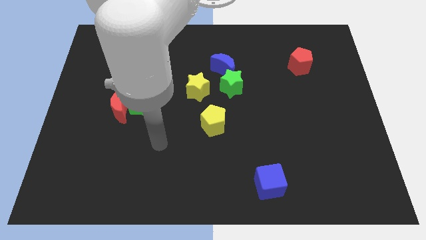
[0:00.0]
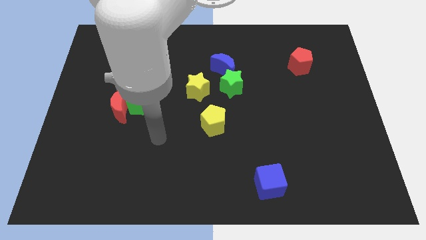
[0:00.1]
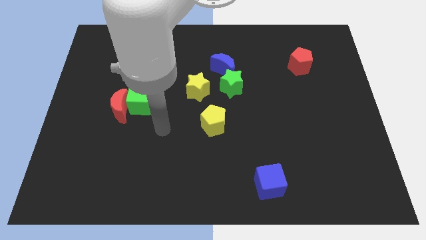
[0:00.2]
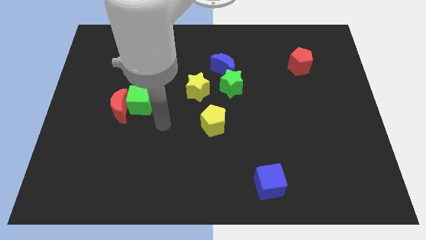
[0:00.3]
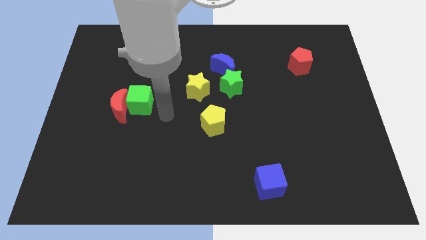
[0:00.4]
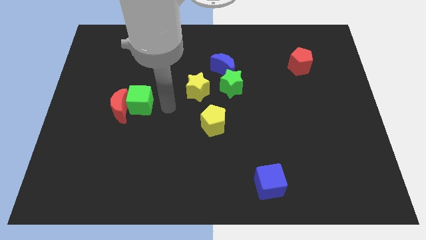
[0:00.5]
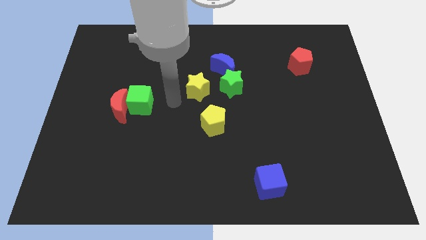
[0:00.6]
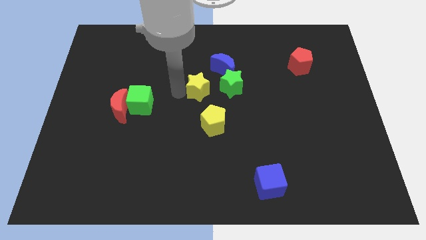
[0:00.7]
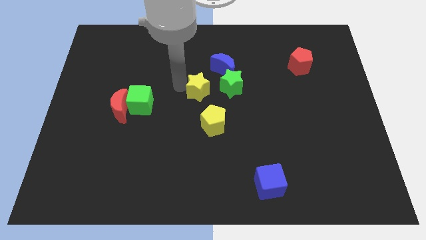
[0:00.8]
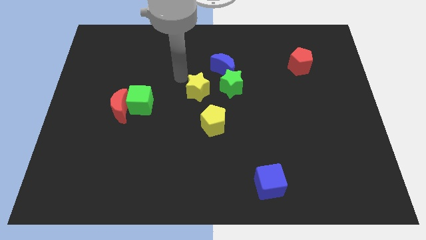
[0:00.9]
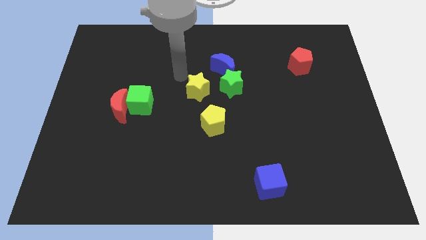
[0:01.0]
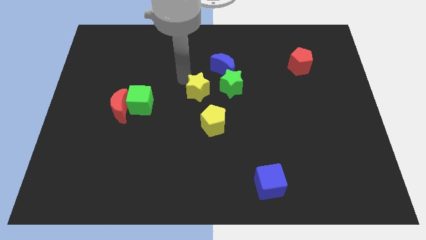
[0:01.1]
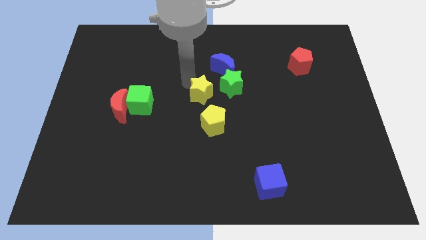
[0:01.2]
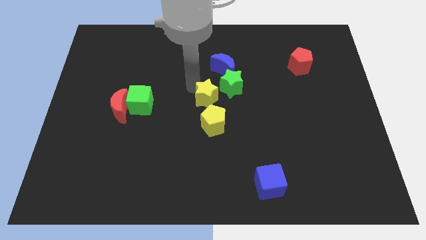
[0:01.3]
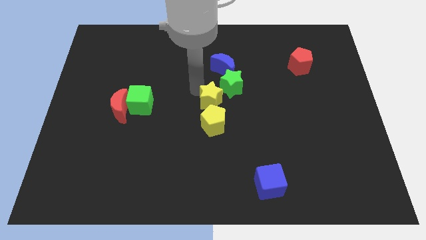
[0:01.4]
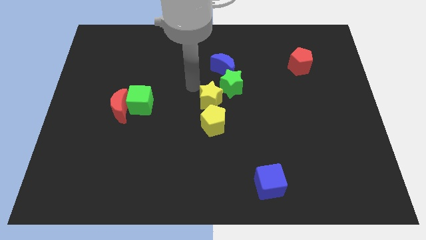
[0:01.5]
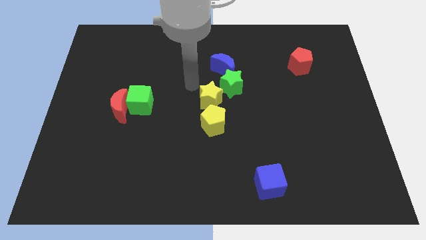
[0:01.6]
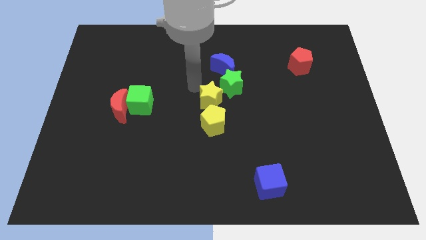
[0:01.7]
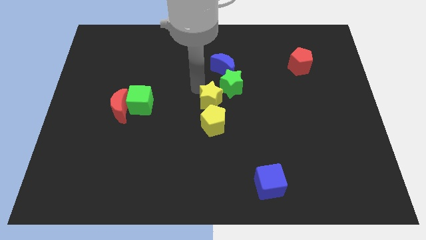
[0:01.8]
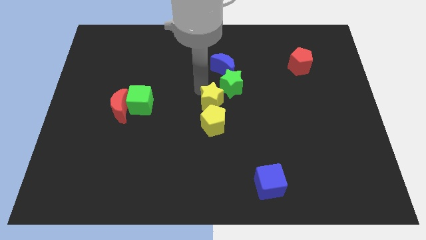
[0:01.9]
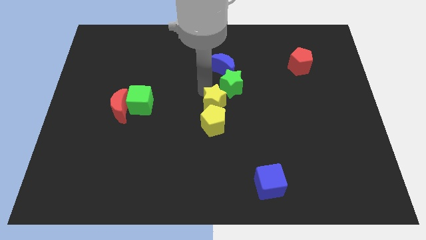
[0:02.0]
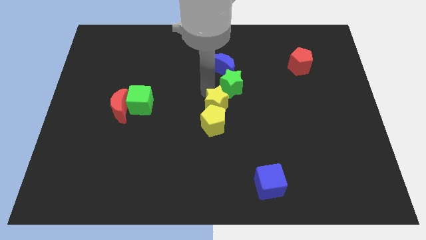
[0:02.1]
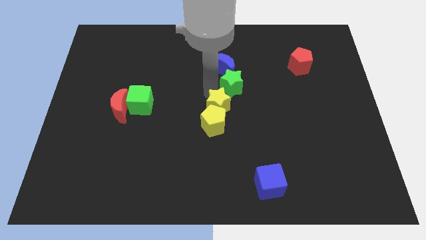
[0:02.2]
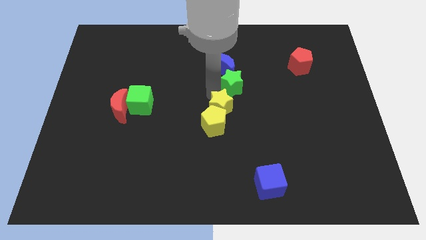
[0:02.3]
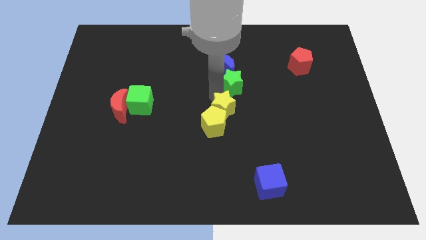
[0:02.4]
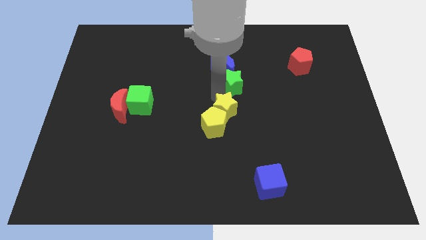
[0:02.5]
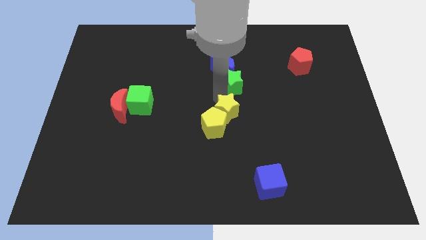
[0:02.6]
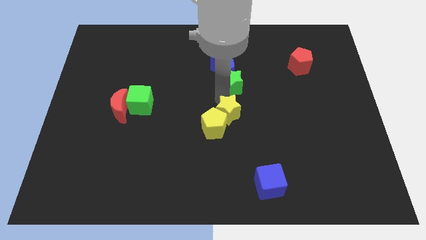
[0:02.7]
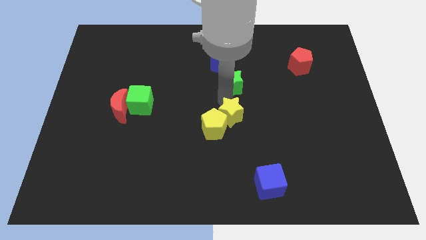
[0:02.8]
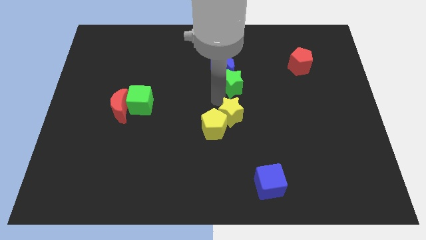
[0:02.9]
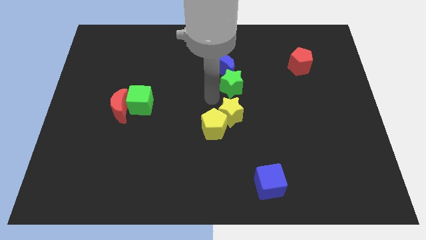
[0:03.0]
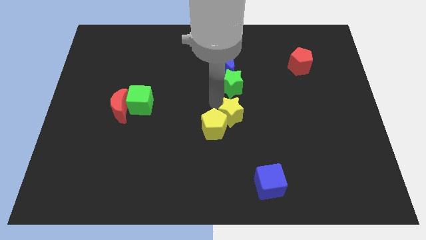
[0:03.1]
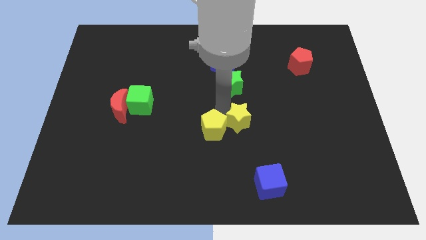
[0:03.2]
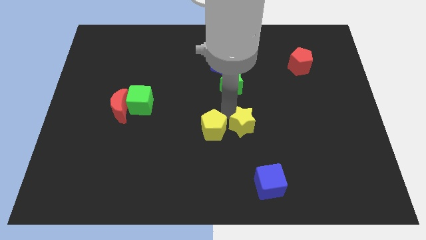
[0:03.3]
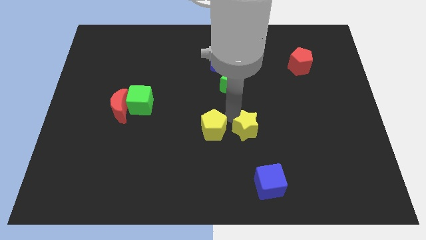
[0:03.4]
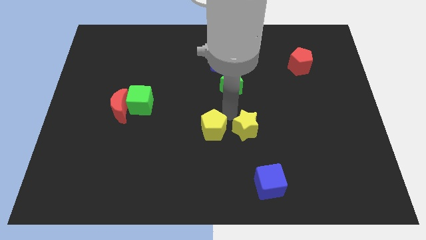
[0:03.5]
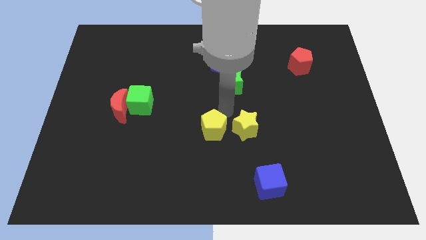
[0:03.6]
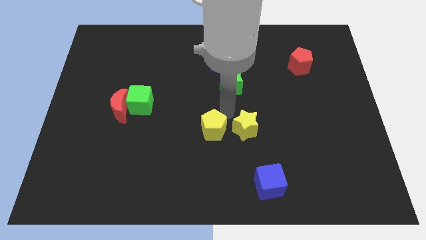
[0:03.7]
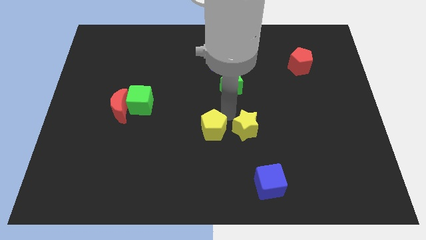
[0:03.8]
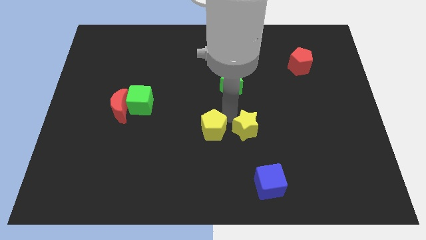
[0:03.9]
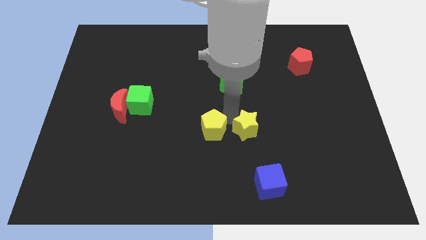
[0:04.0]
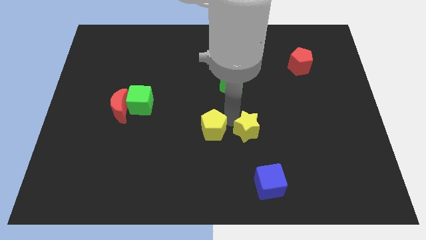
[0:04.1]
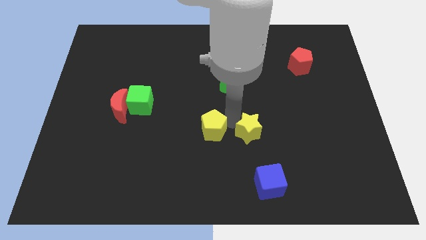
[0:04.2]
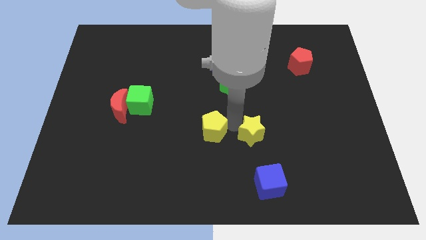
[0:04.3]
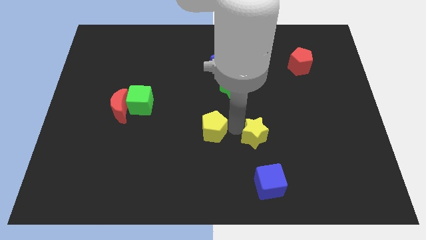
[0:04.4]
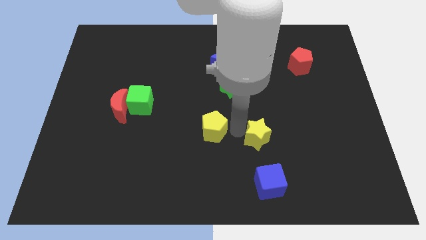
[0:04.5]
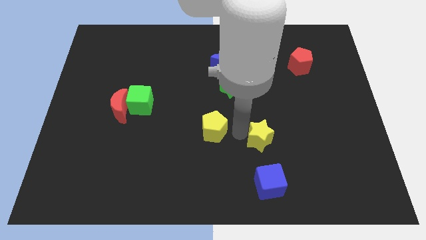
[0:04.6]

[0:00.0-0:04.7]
push the yellow star diagonally downwards and to the right

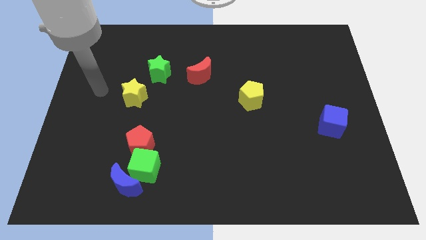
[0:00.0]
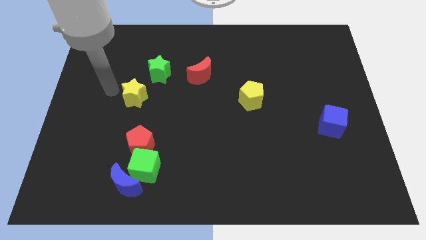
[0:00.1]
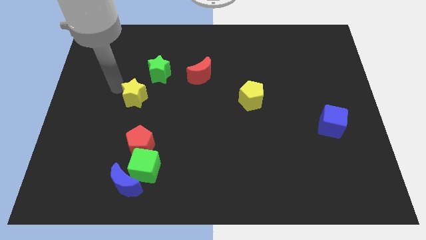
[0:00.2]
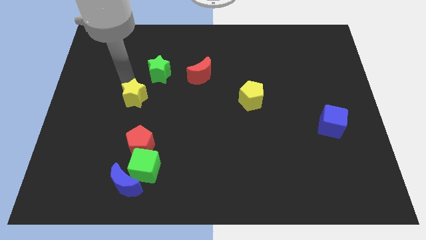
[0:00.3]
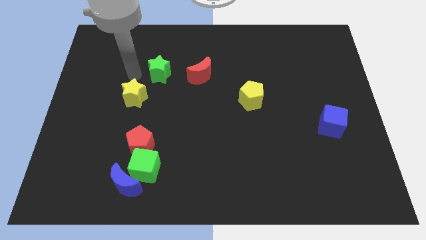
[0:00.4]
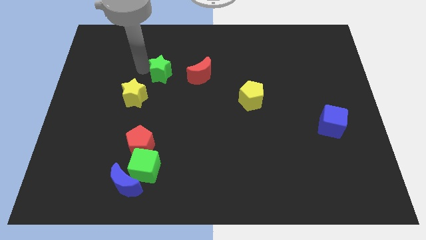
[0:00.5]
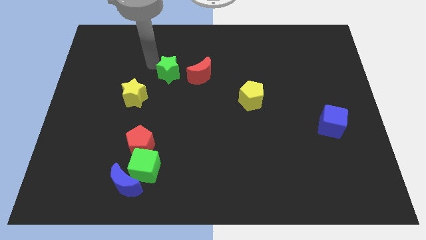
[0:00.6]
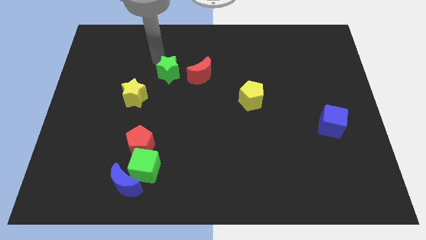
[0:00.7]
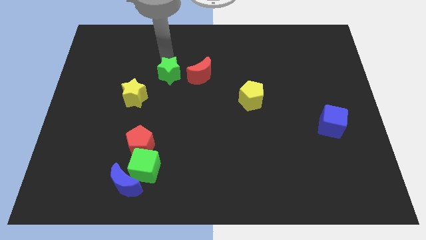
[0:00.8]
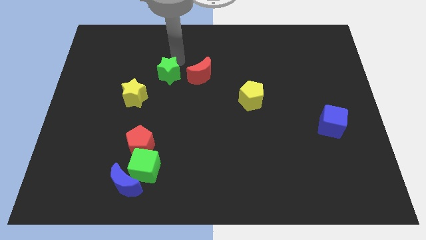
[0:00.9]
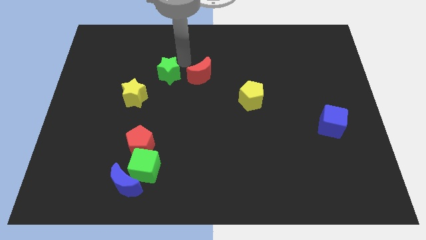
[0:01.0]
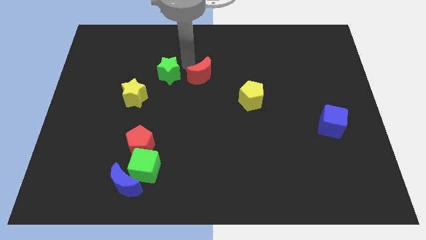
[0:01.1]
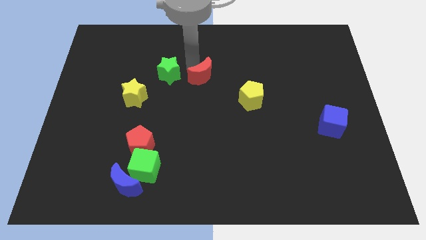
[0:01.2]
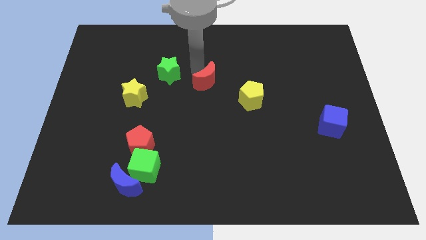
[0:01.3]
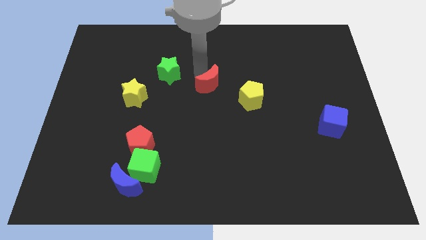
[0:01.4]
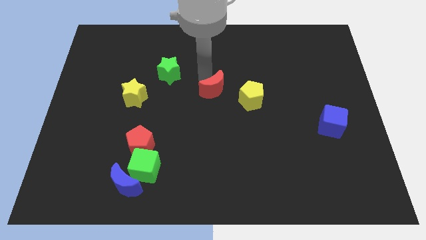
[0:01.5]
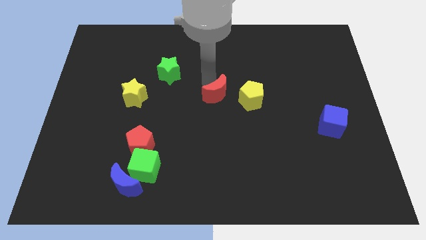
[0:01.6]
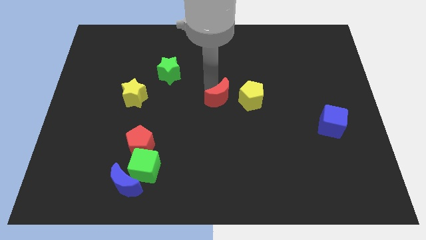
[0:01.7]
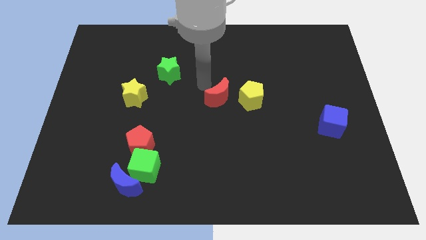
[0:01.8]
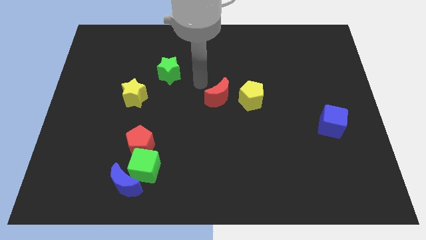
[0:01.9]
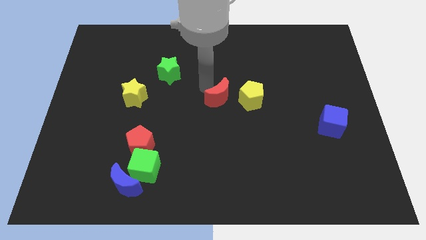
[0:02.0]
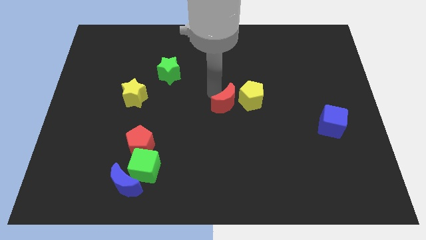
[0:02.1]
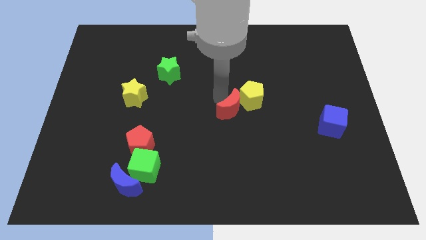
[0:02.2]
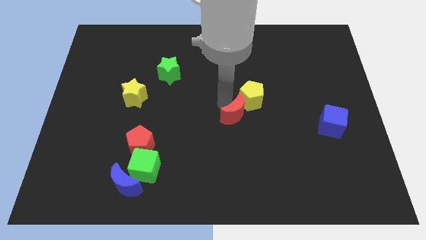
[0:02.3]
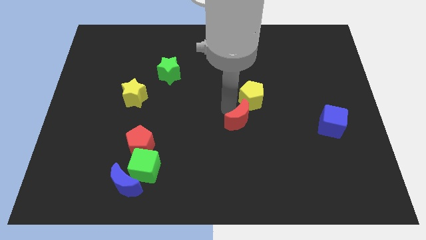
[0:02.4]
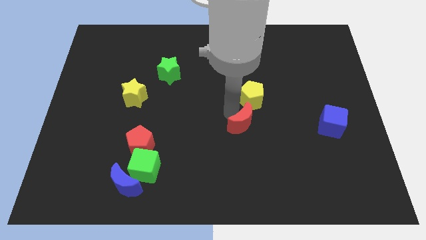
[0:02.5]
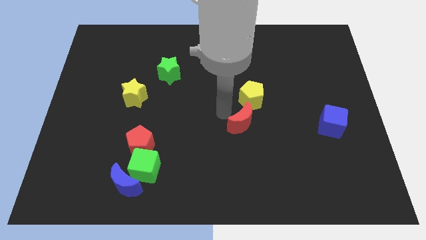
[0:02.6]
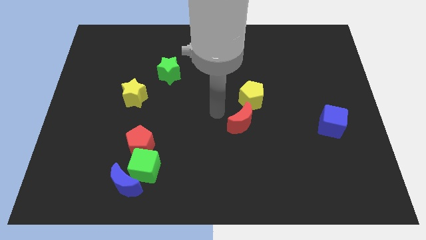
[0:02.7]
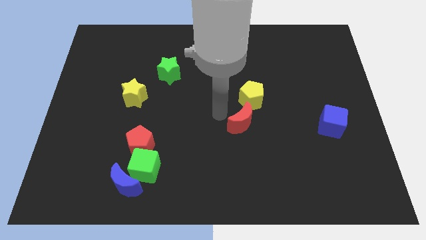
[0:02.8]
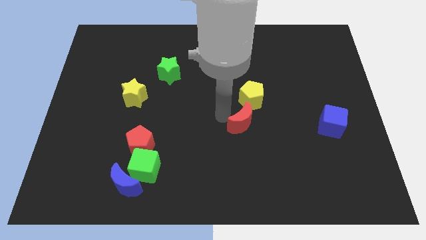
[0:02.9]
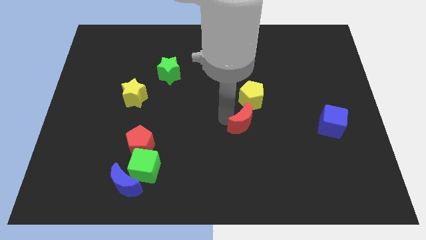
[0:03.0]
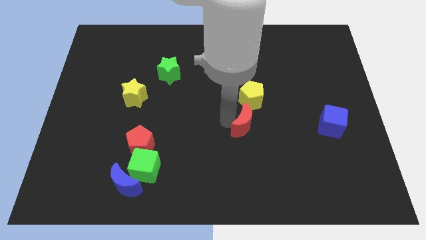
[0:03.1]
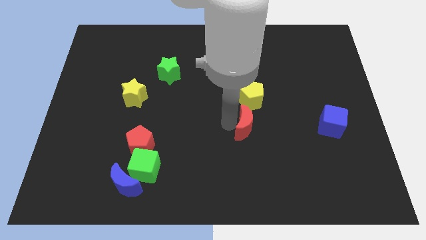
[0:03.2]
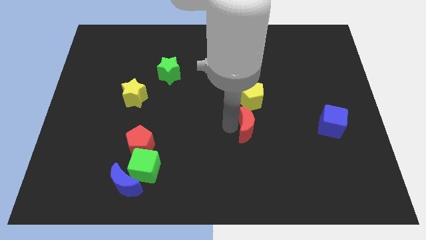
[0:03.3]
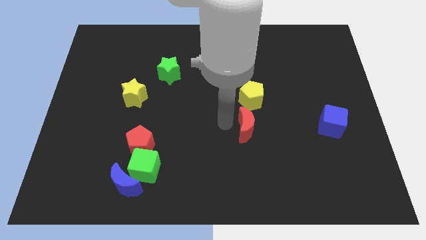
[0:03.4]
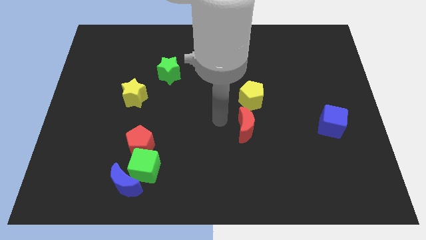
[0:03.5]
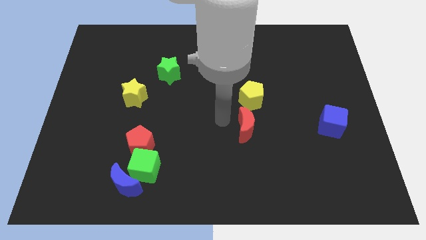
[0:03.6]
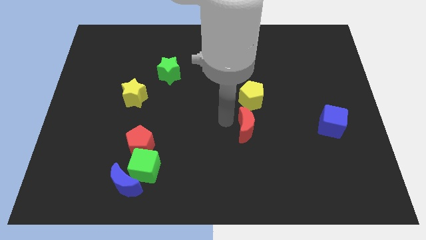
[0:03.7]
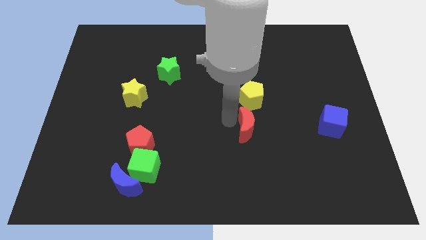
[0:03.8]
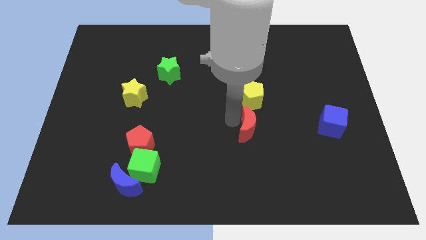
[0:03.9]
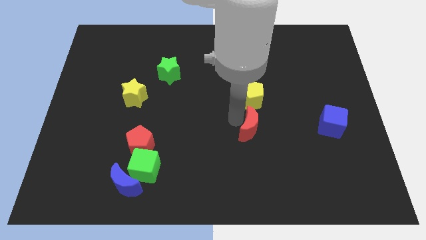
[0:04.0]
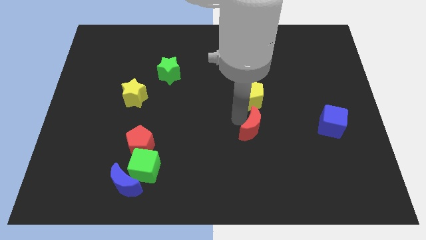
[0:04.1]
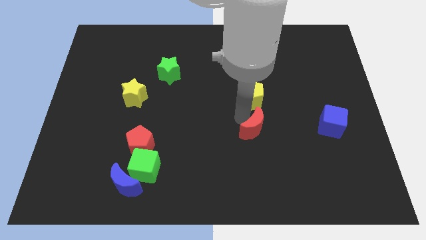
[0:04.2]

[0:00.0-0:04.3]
push the red moon diagonally downwards and right
